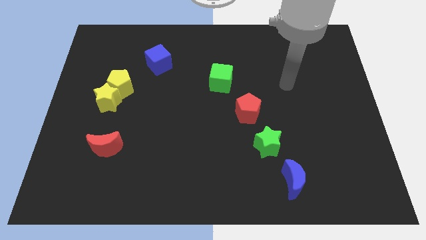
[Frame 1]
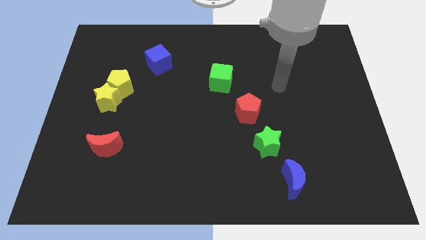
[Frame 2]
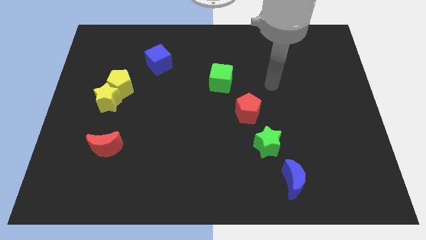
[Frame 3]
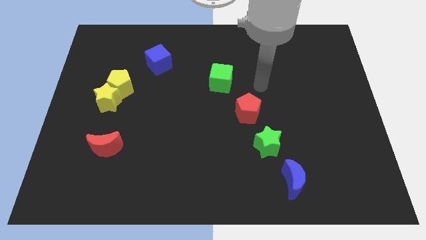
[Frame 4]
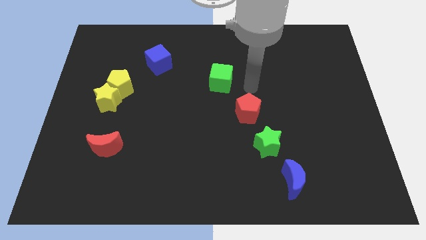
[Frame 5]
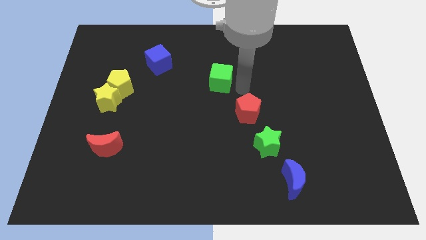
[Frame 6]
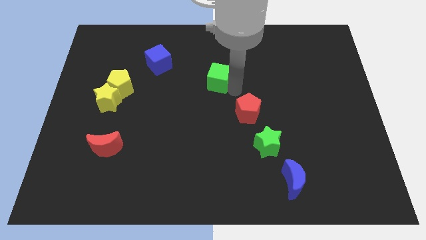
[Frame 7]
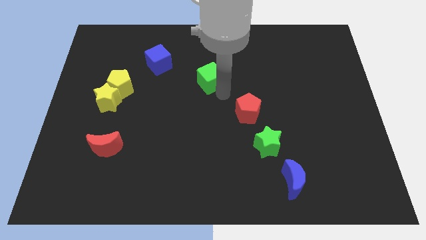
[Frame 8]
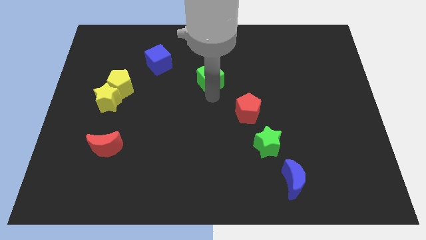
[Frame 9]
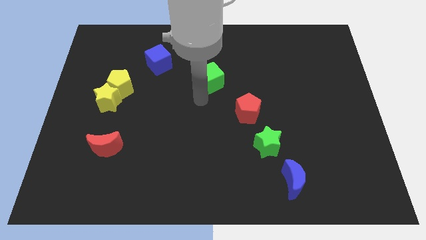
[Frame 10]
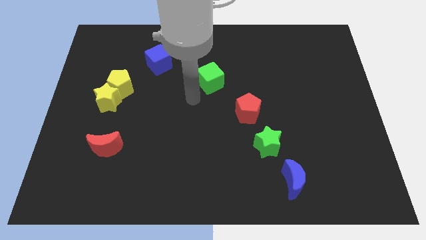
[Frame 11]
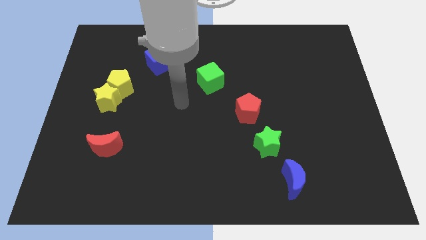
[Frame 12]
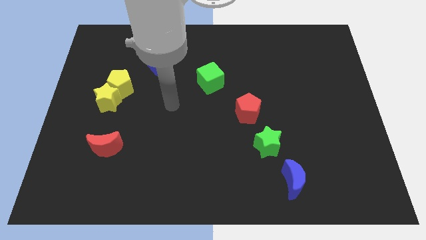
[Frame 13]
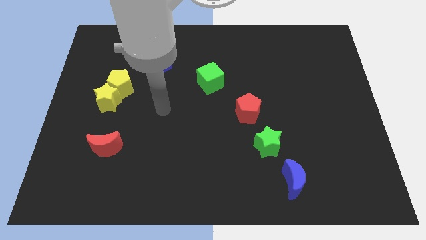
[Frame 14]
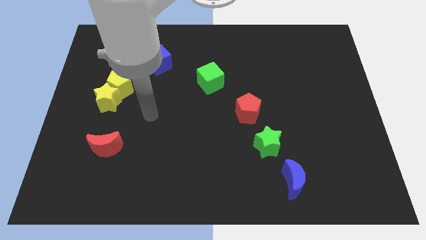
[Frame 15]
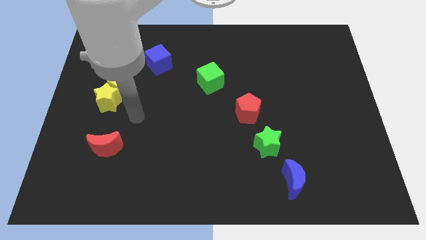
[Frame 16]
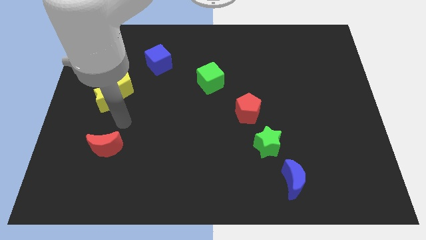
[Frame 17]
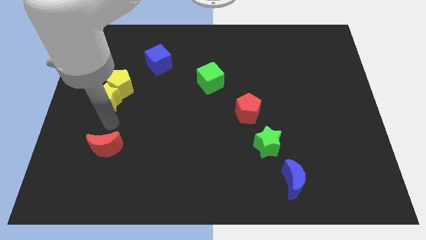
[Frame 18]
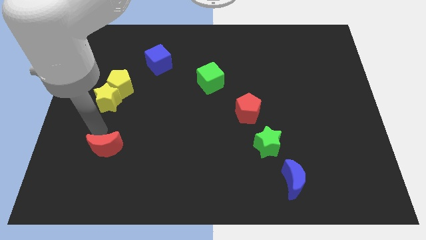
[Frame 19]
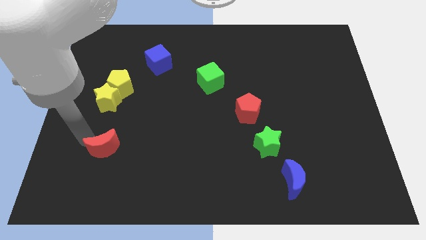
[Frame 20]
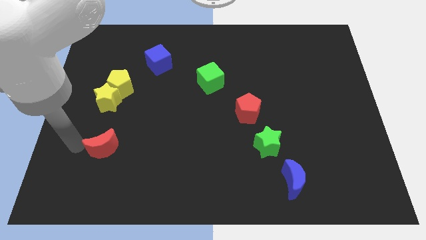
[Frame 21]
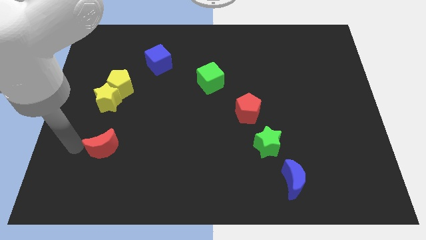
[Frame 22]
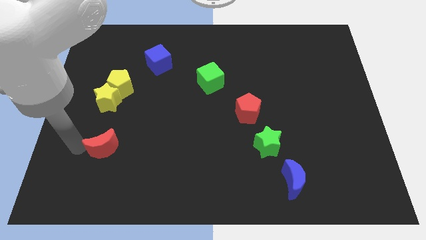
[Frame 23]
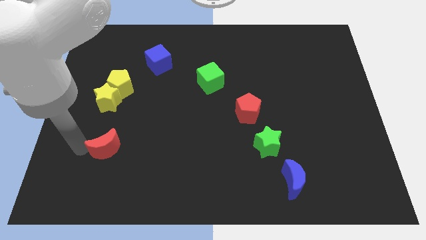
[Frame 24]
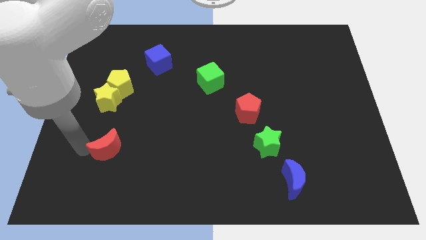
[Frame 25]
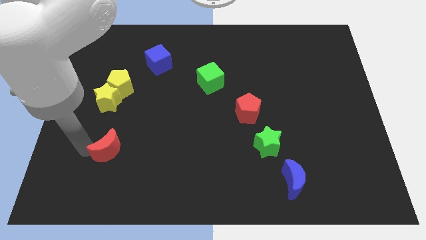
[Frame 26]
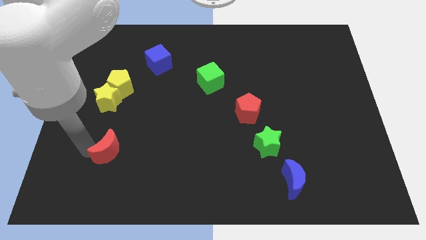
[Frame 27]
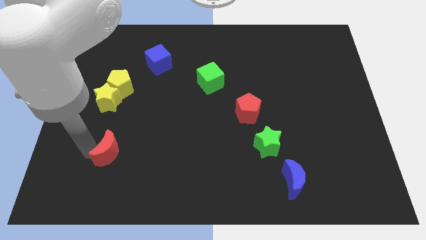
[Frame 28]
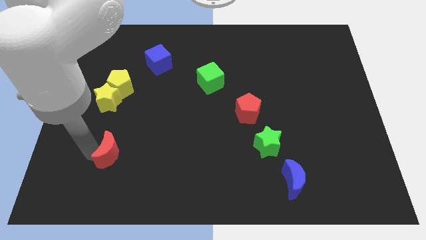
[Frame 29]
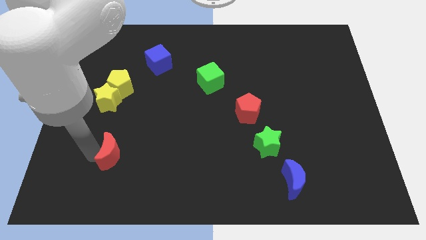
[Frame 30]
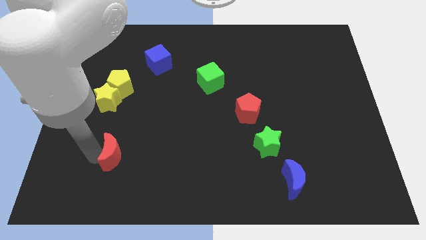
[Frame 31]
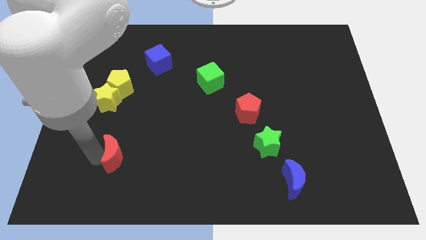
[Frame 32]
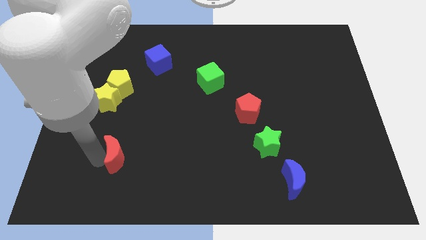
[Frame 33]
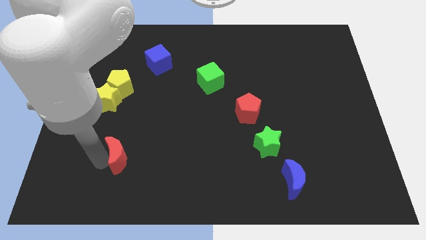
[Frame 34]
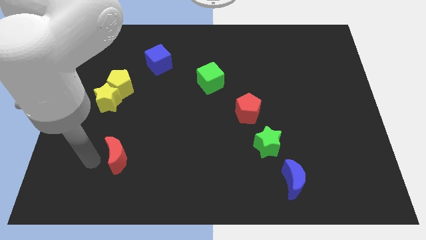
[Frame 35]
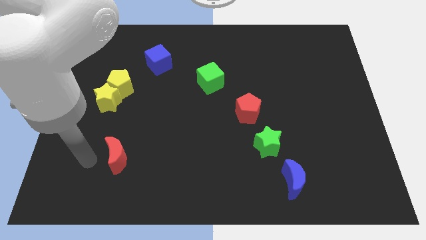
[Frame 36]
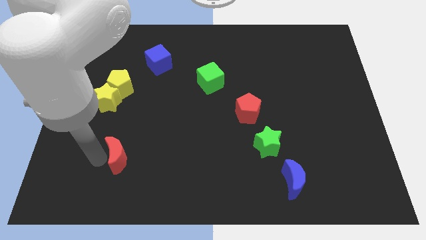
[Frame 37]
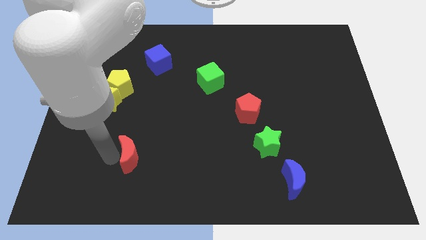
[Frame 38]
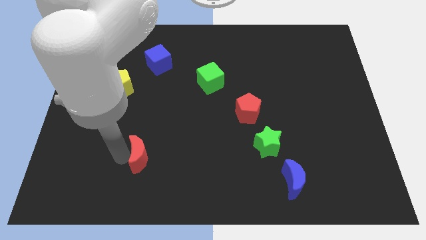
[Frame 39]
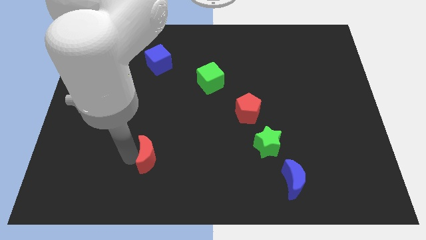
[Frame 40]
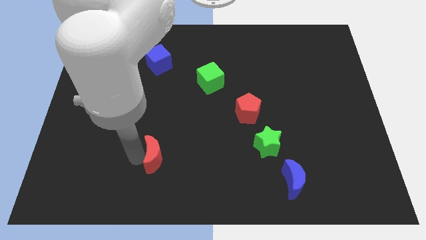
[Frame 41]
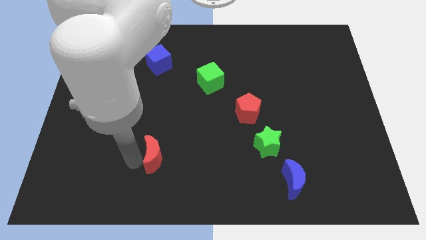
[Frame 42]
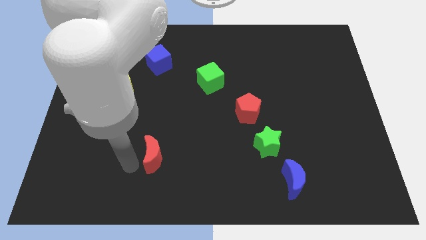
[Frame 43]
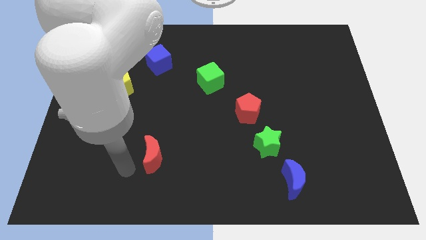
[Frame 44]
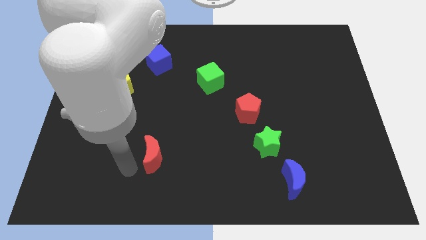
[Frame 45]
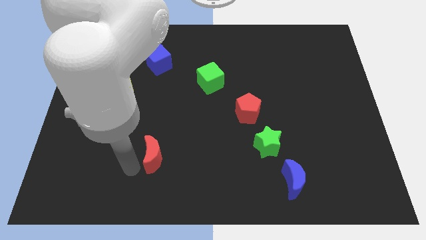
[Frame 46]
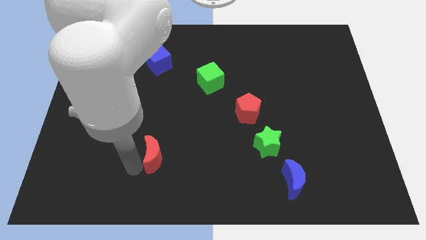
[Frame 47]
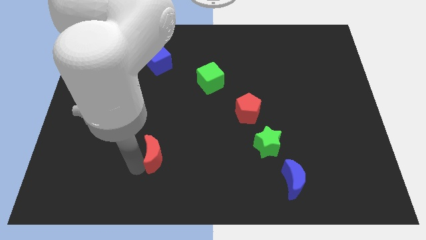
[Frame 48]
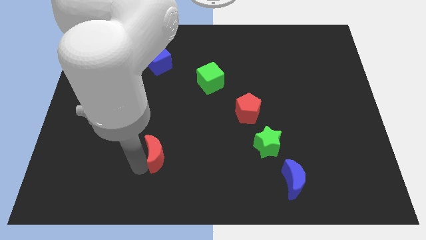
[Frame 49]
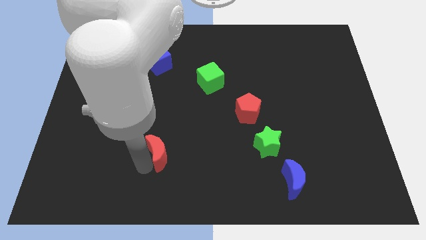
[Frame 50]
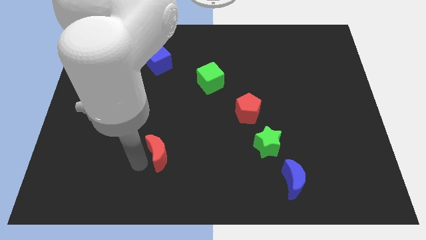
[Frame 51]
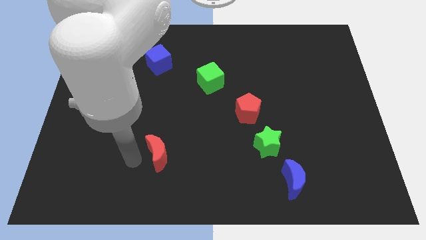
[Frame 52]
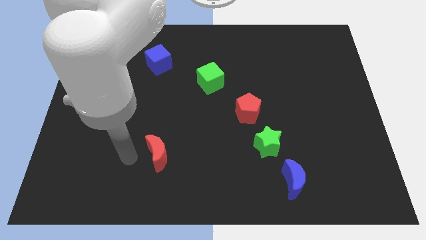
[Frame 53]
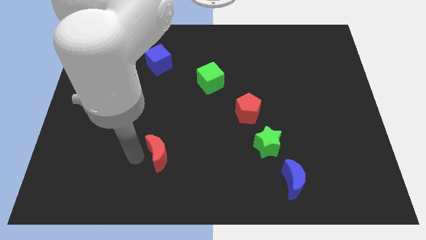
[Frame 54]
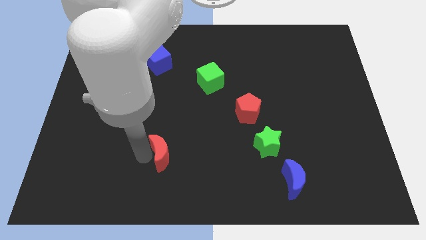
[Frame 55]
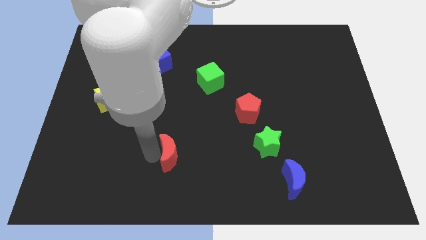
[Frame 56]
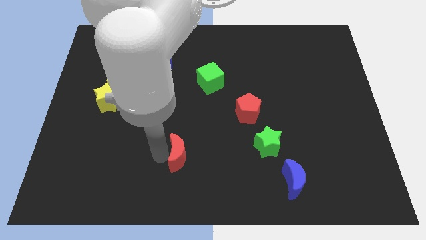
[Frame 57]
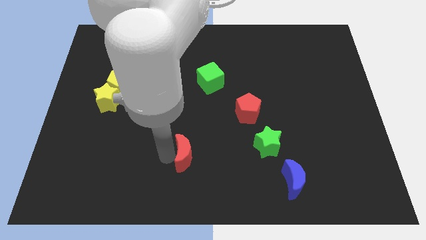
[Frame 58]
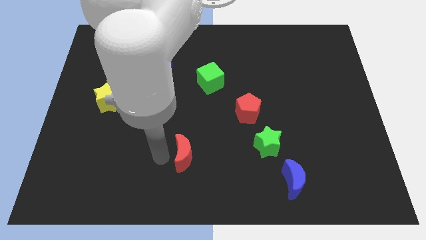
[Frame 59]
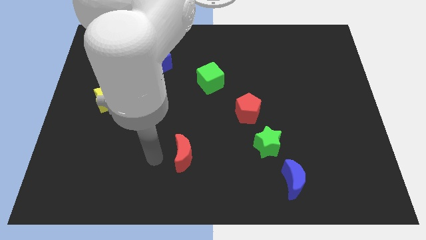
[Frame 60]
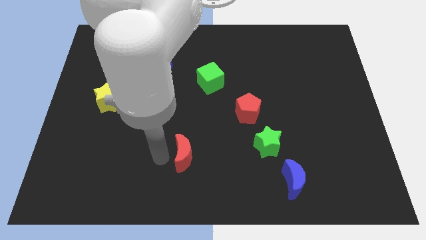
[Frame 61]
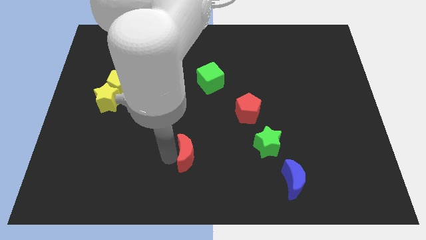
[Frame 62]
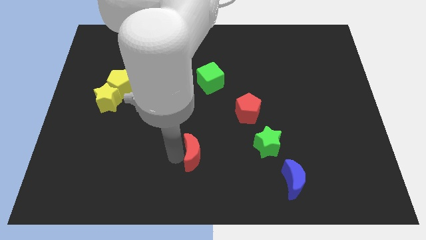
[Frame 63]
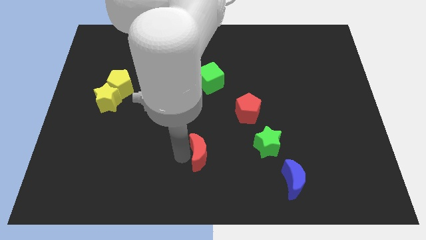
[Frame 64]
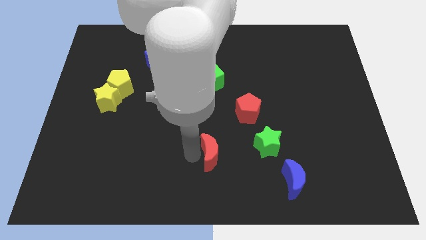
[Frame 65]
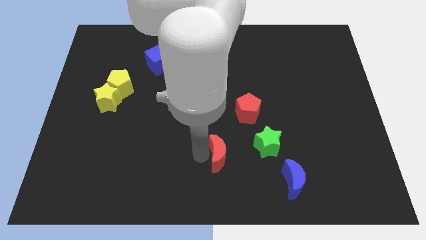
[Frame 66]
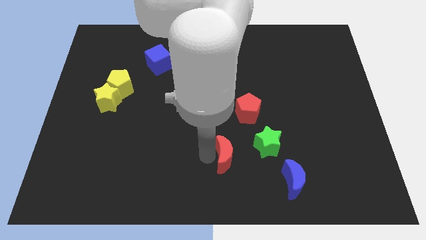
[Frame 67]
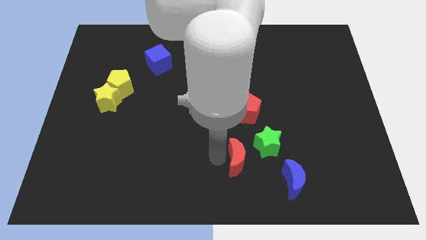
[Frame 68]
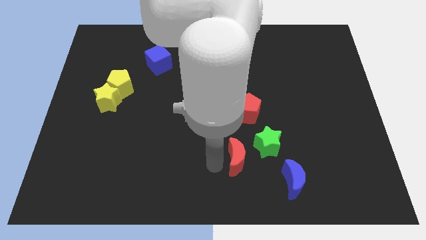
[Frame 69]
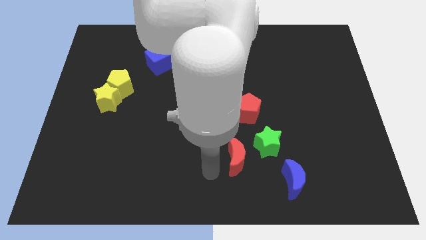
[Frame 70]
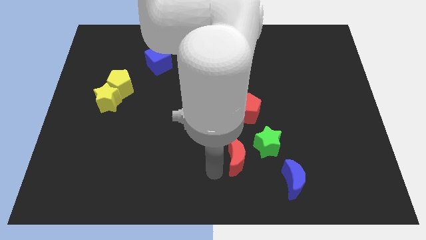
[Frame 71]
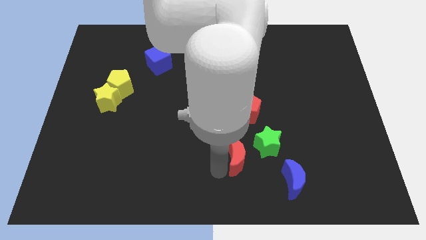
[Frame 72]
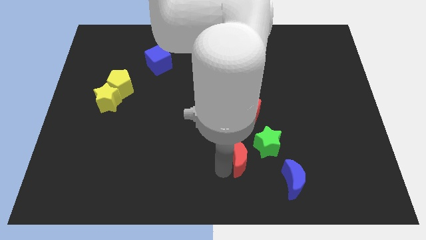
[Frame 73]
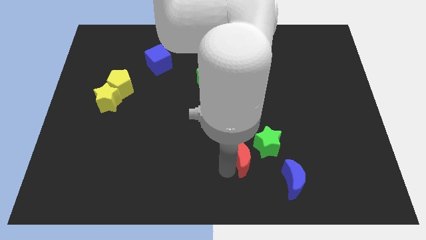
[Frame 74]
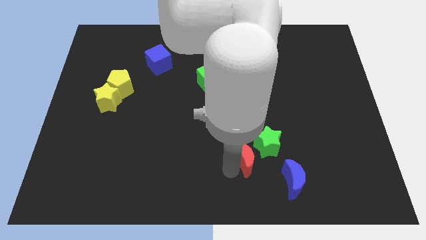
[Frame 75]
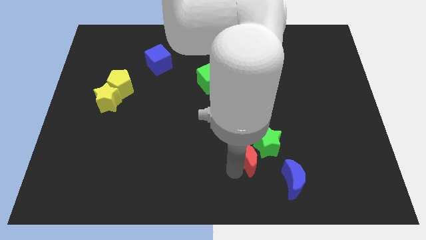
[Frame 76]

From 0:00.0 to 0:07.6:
move the red moon towards the green star
